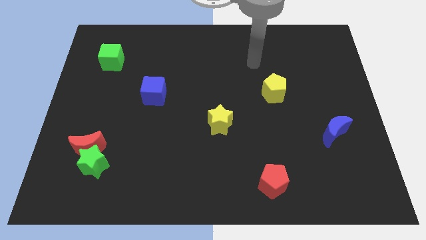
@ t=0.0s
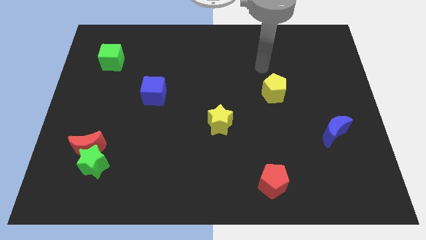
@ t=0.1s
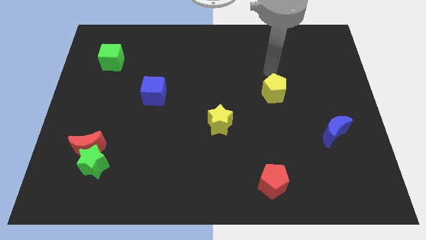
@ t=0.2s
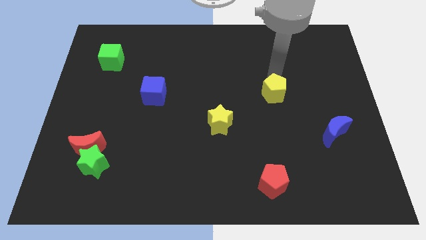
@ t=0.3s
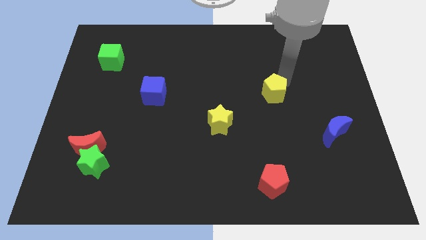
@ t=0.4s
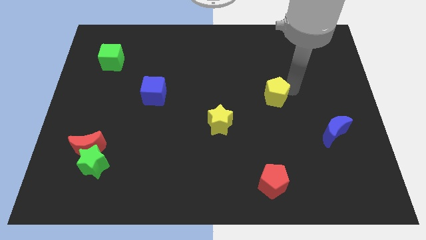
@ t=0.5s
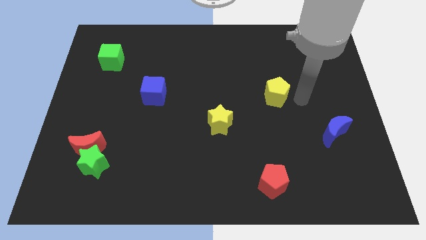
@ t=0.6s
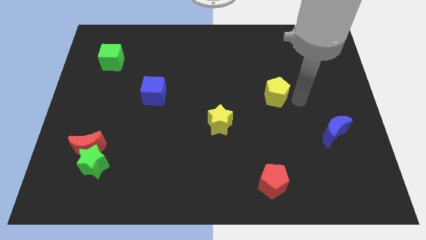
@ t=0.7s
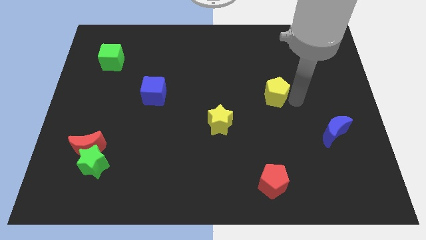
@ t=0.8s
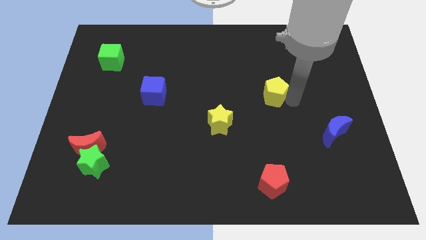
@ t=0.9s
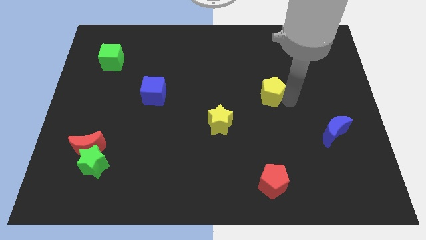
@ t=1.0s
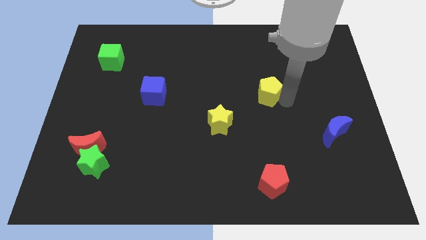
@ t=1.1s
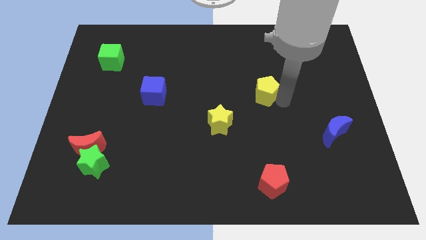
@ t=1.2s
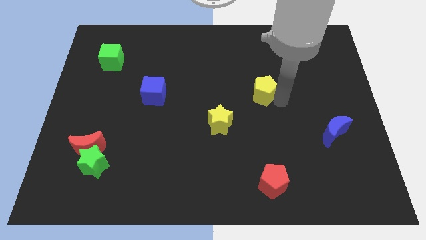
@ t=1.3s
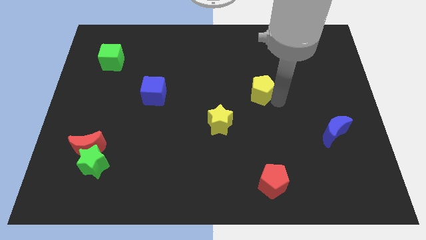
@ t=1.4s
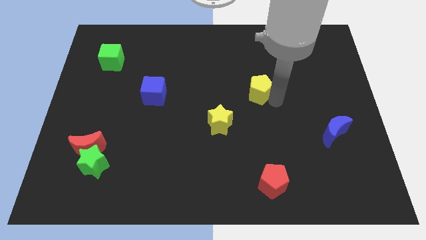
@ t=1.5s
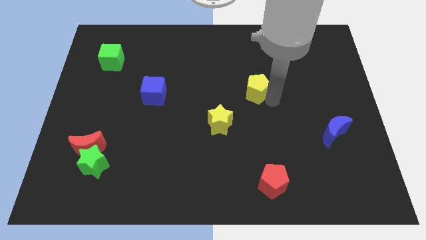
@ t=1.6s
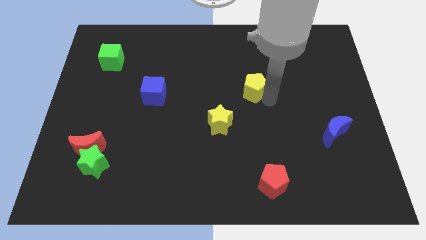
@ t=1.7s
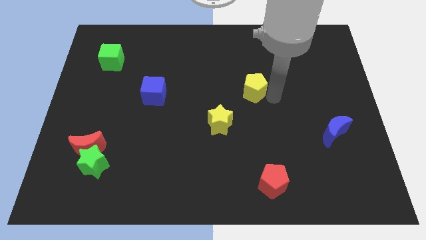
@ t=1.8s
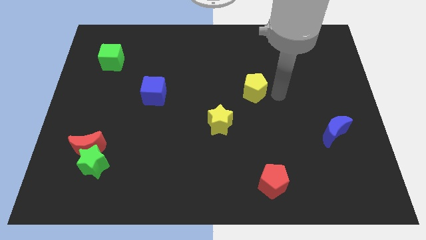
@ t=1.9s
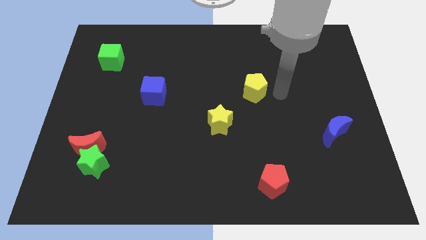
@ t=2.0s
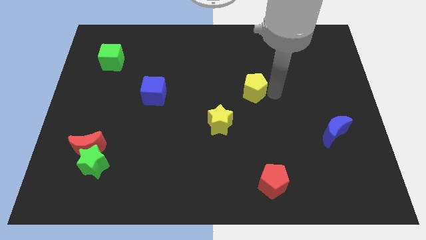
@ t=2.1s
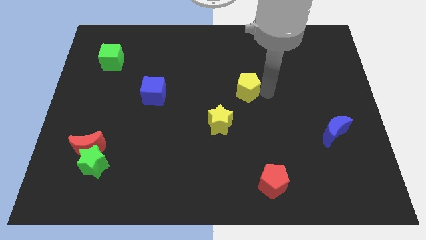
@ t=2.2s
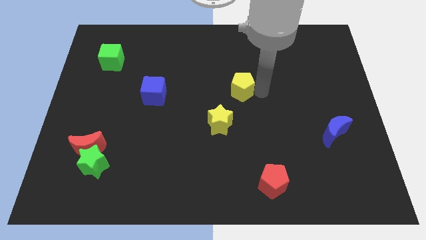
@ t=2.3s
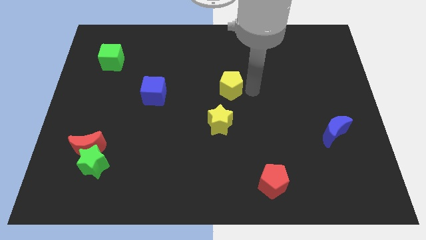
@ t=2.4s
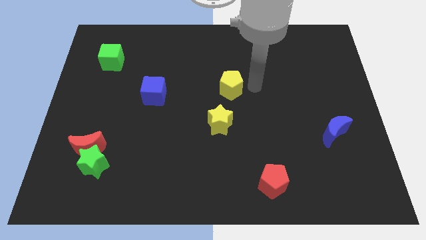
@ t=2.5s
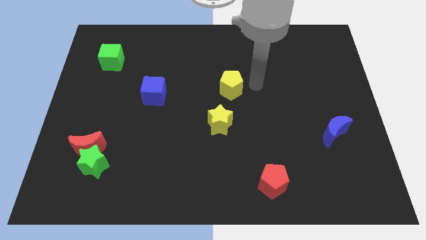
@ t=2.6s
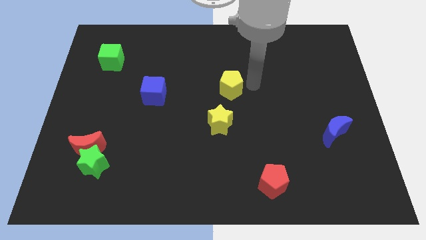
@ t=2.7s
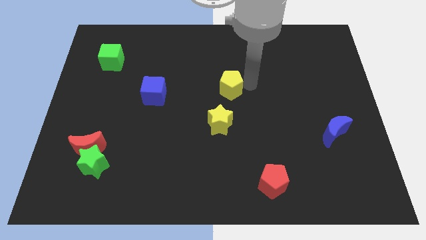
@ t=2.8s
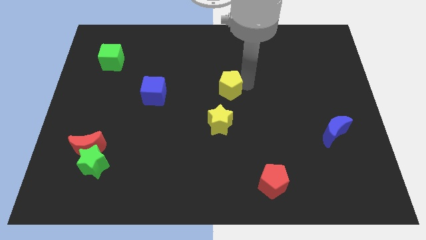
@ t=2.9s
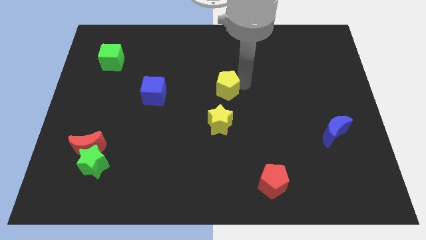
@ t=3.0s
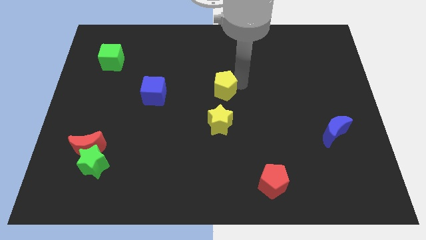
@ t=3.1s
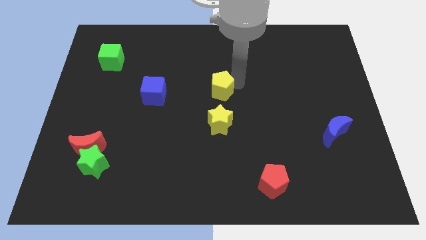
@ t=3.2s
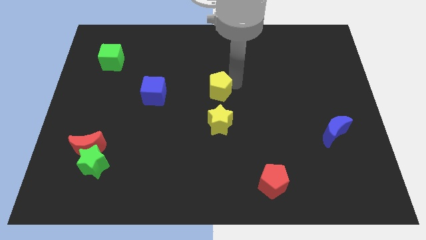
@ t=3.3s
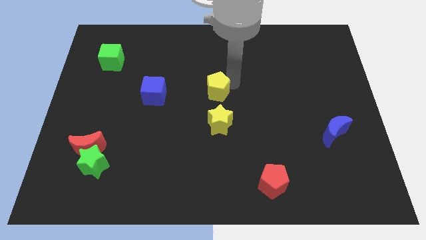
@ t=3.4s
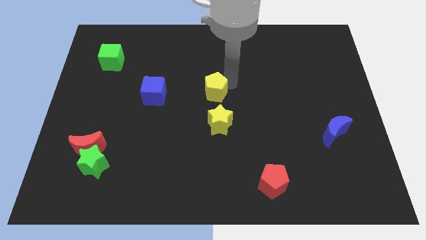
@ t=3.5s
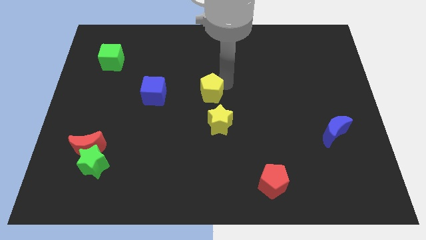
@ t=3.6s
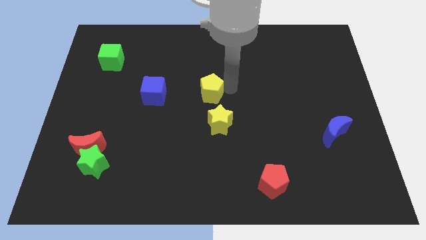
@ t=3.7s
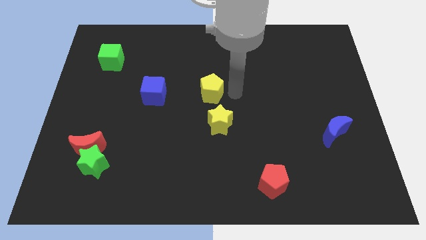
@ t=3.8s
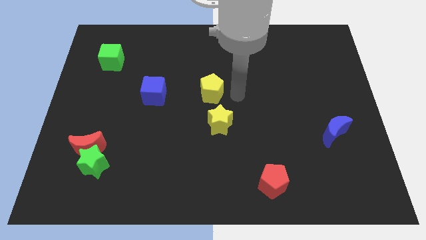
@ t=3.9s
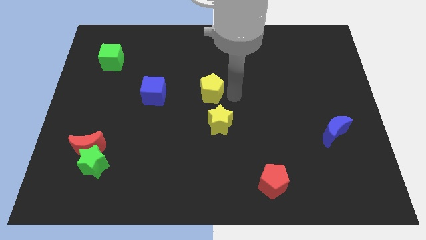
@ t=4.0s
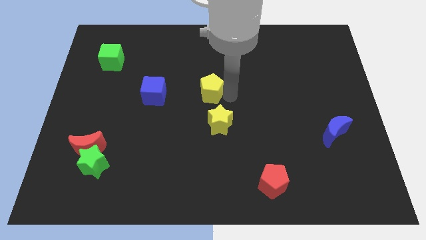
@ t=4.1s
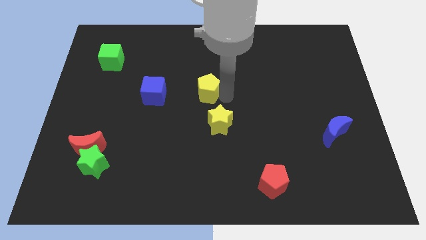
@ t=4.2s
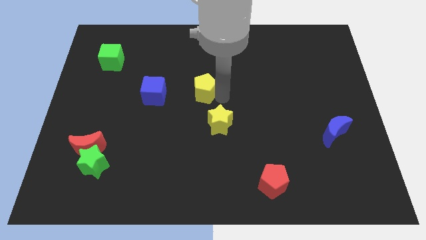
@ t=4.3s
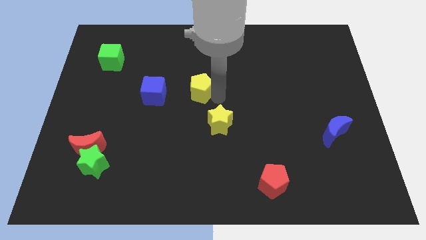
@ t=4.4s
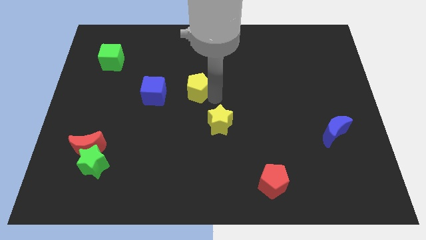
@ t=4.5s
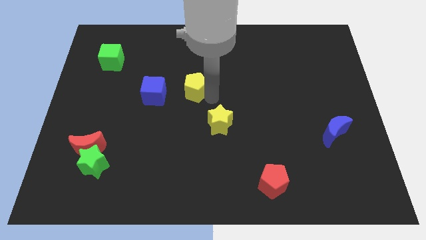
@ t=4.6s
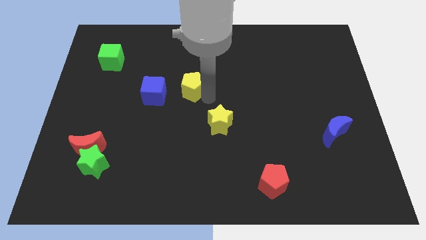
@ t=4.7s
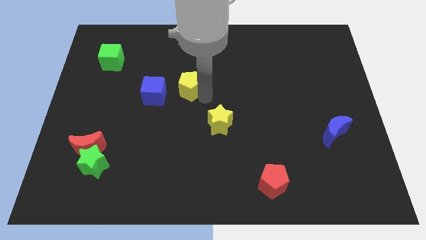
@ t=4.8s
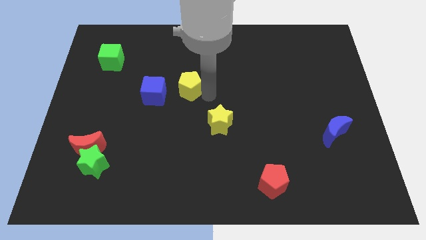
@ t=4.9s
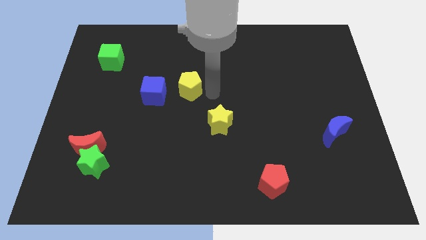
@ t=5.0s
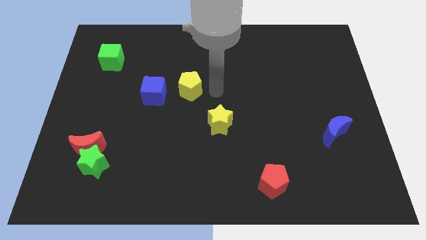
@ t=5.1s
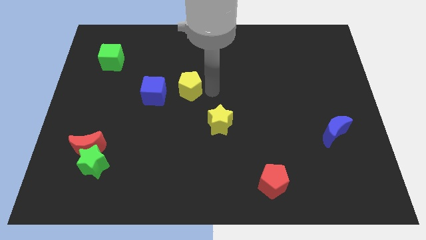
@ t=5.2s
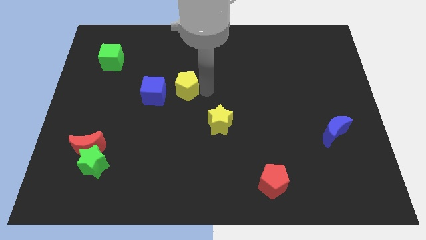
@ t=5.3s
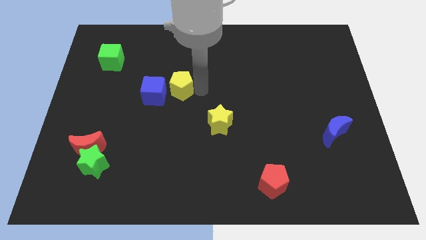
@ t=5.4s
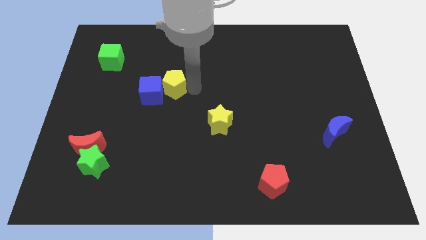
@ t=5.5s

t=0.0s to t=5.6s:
put the yellow pentagon to the blue cube

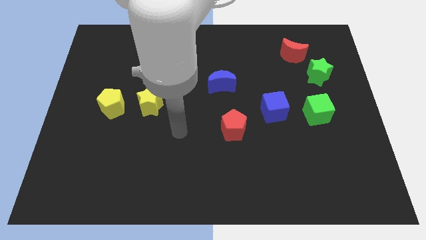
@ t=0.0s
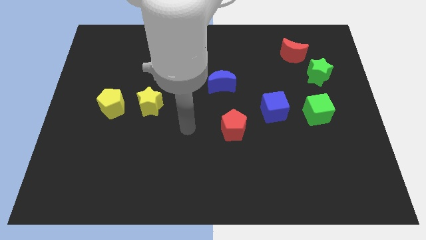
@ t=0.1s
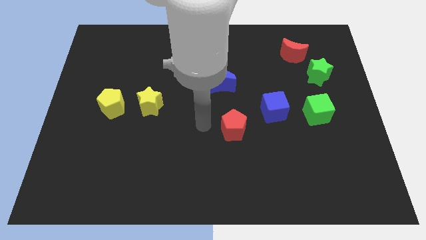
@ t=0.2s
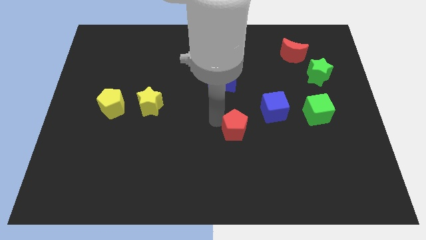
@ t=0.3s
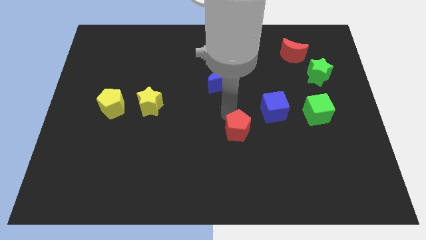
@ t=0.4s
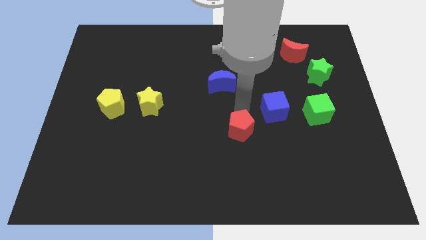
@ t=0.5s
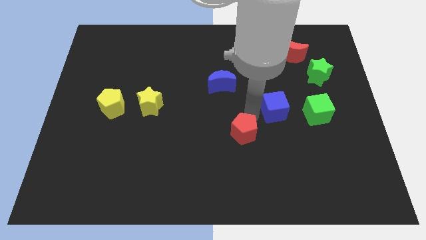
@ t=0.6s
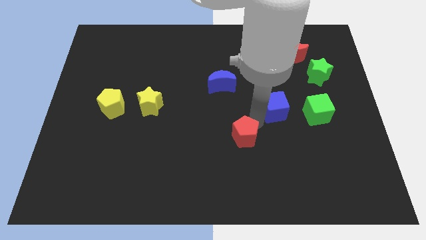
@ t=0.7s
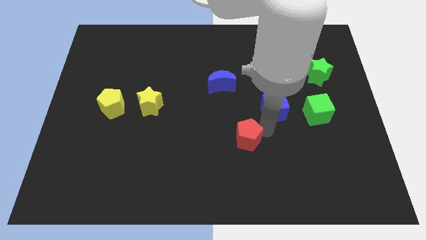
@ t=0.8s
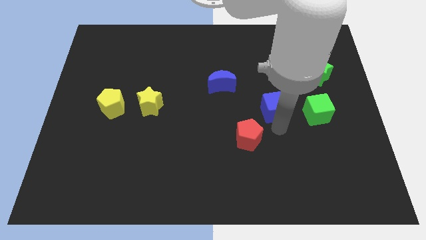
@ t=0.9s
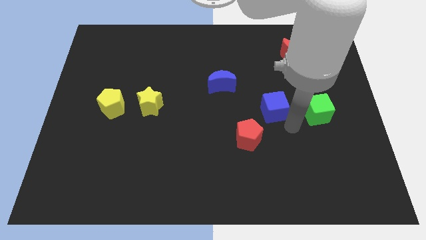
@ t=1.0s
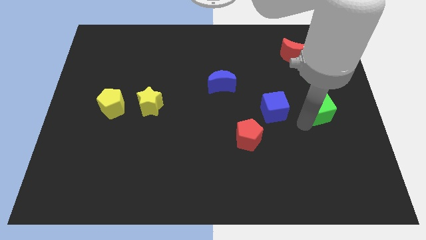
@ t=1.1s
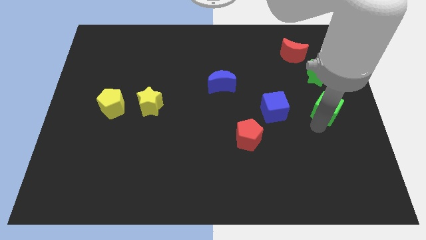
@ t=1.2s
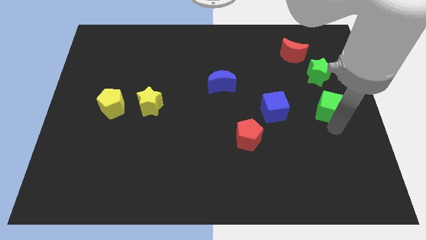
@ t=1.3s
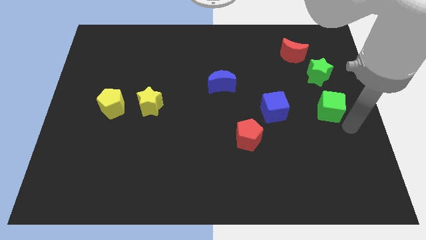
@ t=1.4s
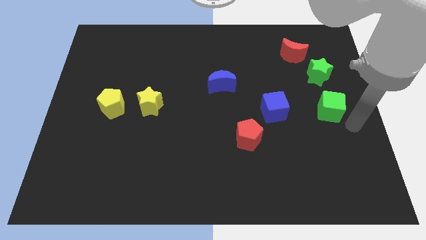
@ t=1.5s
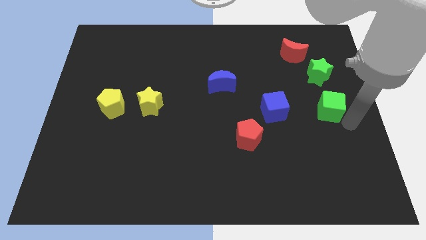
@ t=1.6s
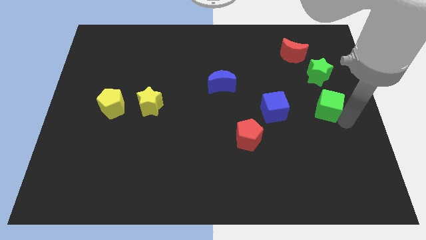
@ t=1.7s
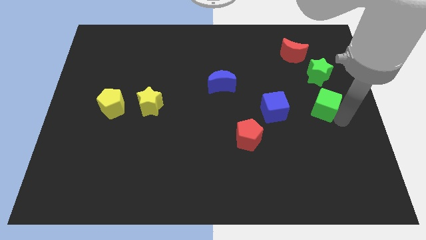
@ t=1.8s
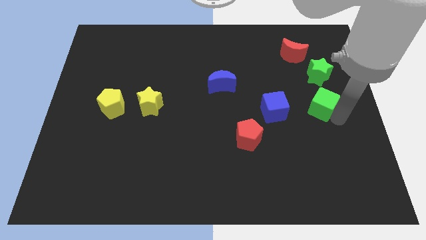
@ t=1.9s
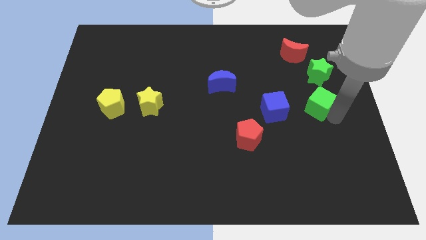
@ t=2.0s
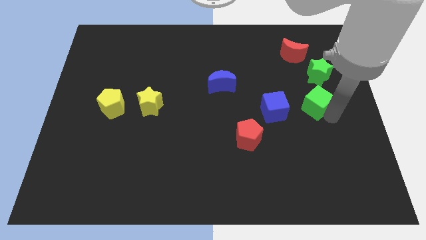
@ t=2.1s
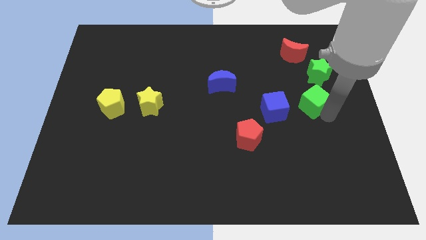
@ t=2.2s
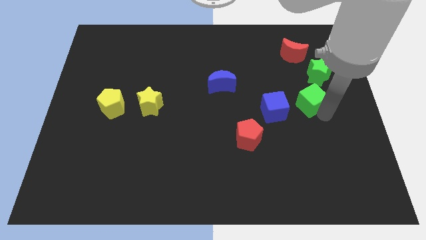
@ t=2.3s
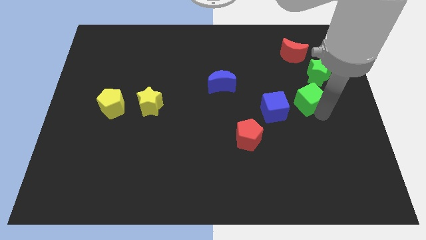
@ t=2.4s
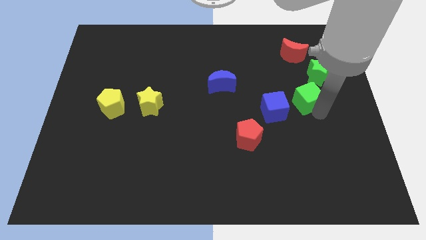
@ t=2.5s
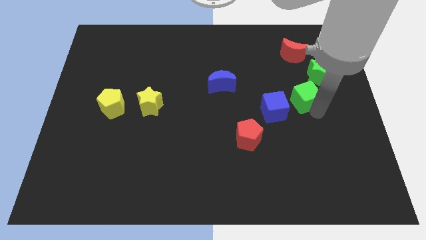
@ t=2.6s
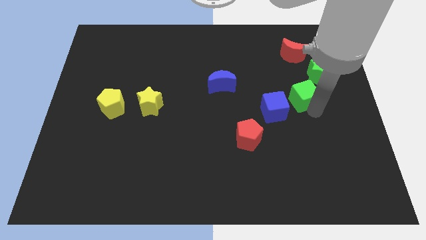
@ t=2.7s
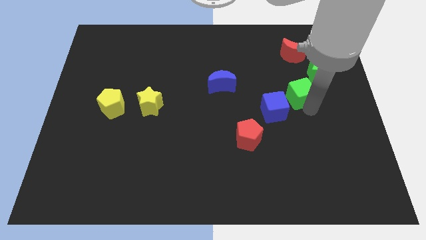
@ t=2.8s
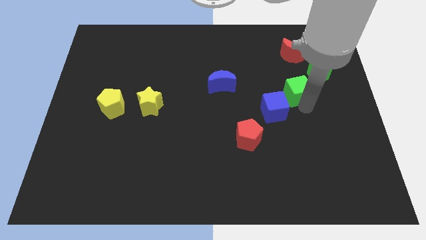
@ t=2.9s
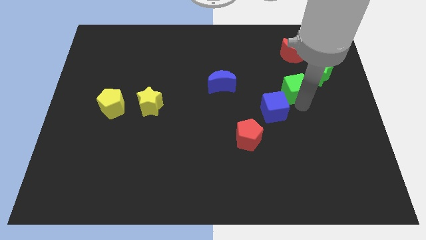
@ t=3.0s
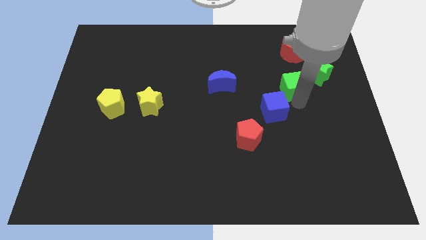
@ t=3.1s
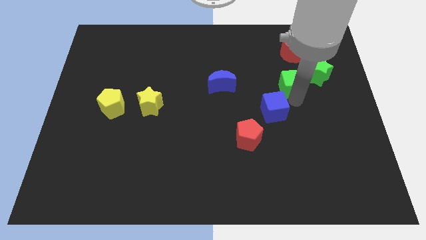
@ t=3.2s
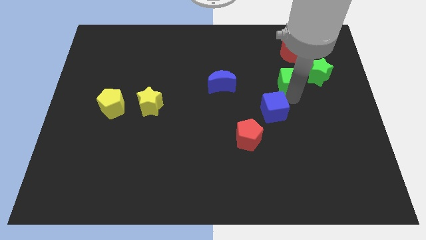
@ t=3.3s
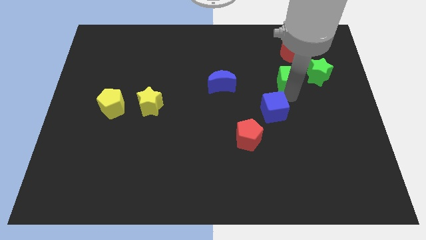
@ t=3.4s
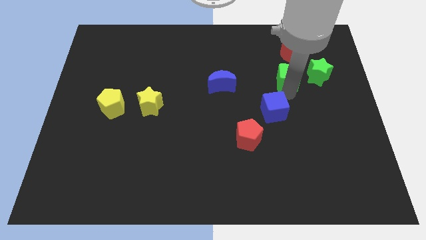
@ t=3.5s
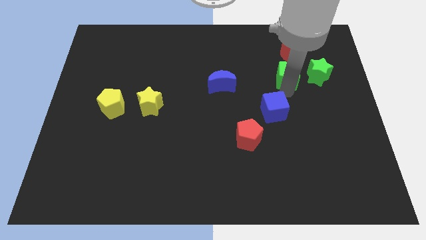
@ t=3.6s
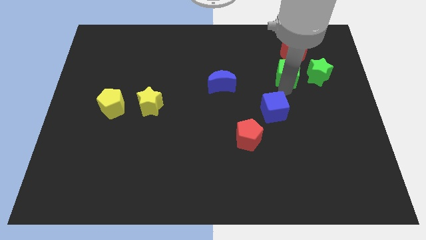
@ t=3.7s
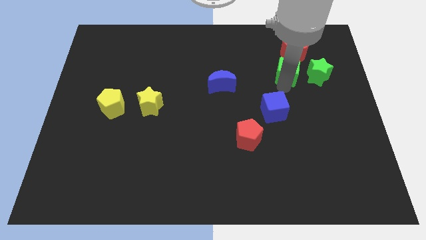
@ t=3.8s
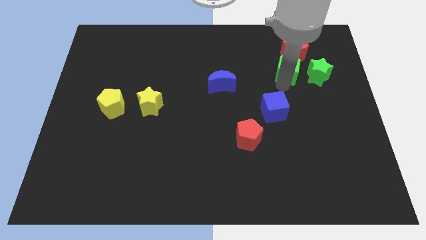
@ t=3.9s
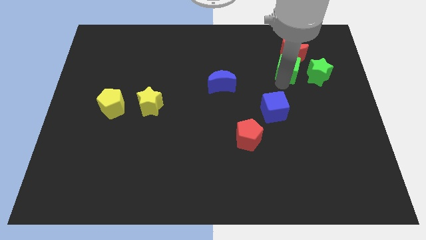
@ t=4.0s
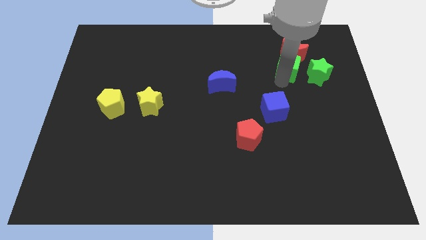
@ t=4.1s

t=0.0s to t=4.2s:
move the green cube close to the red moon
